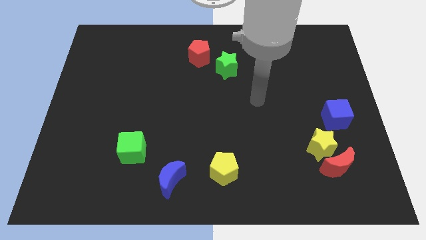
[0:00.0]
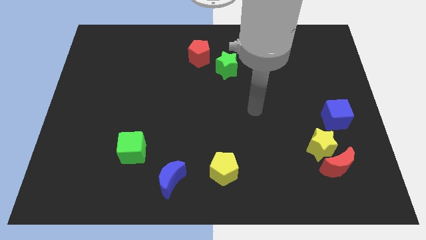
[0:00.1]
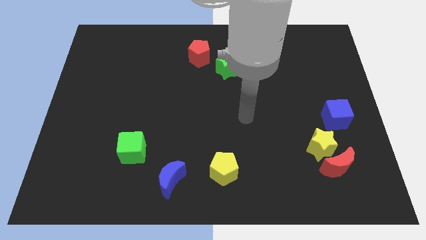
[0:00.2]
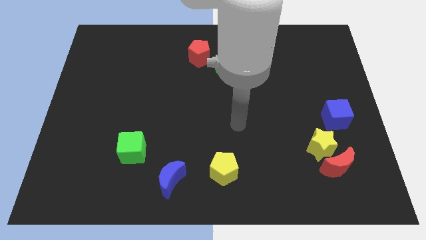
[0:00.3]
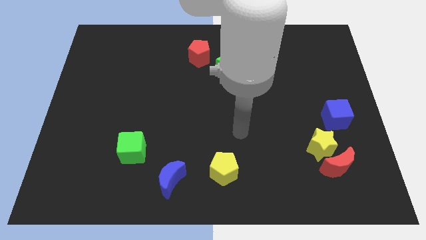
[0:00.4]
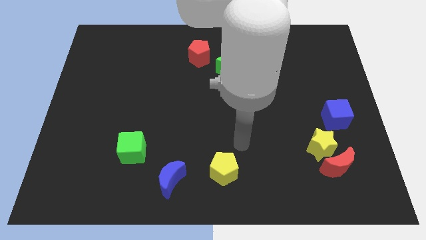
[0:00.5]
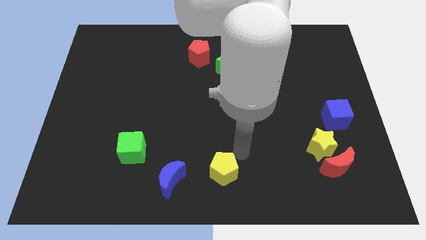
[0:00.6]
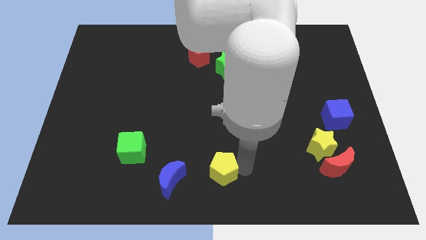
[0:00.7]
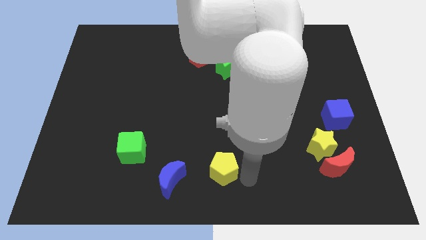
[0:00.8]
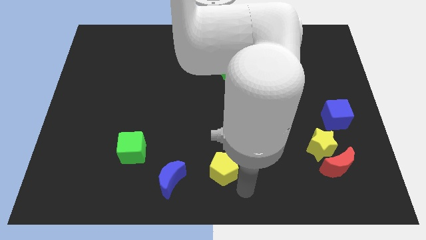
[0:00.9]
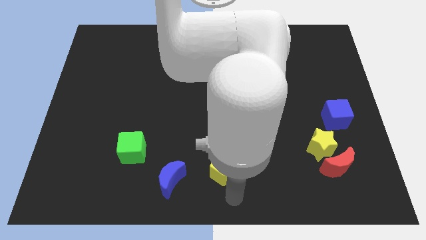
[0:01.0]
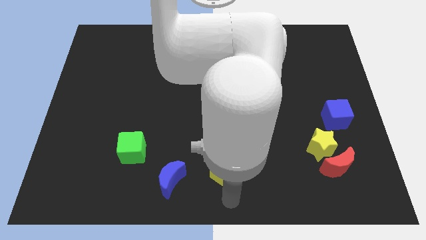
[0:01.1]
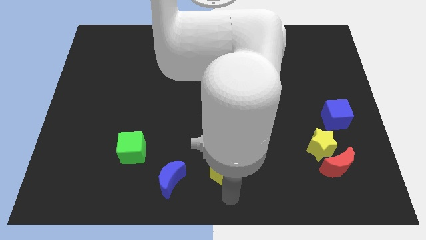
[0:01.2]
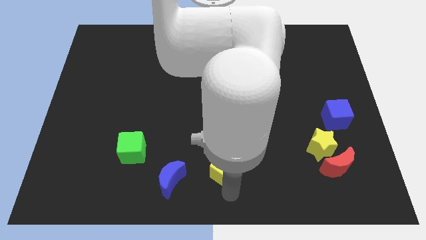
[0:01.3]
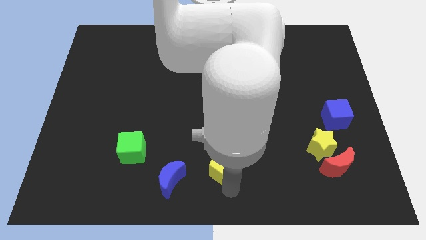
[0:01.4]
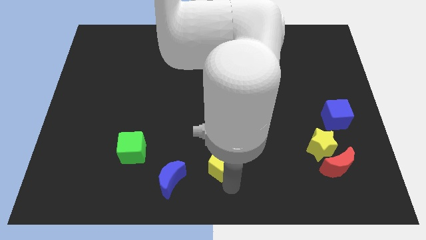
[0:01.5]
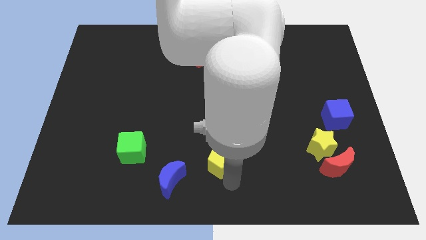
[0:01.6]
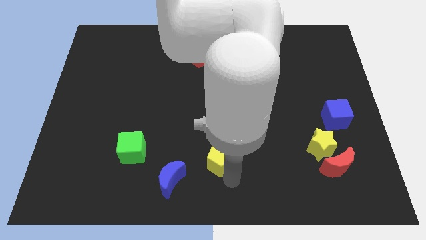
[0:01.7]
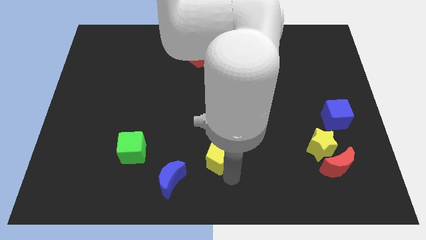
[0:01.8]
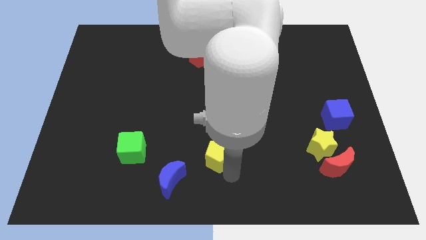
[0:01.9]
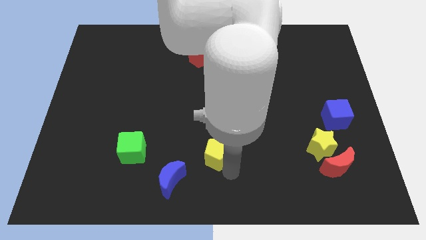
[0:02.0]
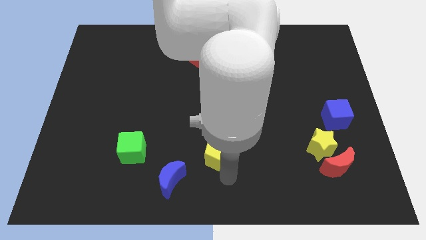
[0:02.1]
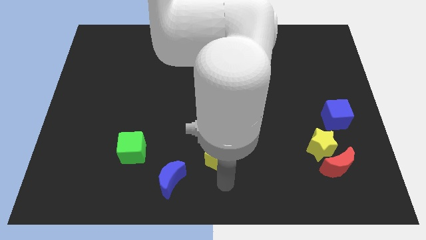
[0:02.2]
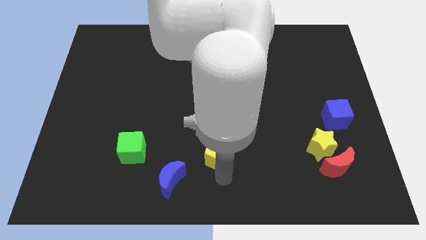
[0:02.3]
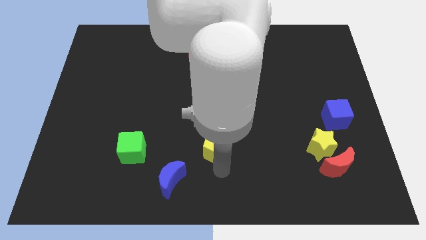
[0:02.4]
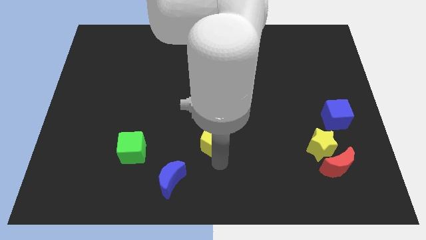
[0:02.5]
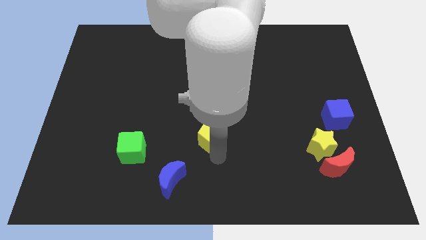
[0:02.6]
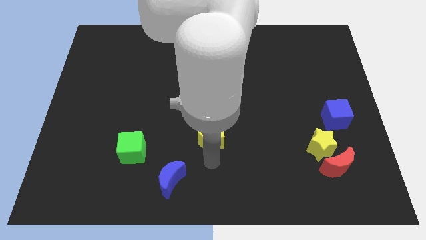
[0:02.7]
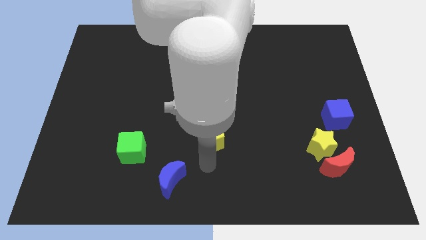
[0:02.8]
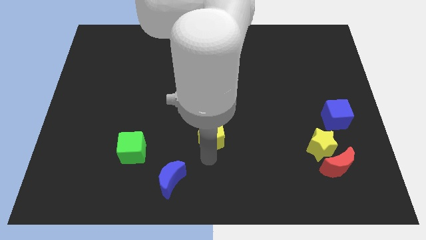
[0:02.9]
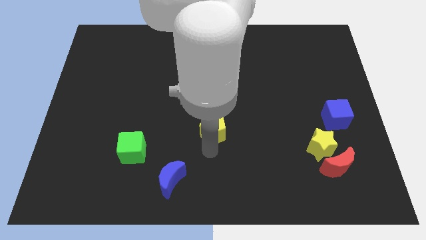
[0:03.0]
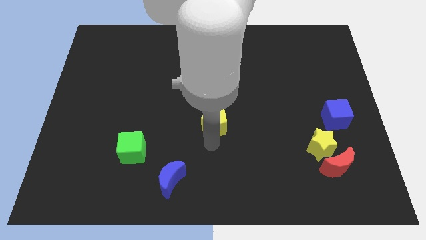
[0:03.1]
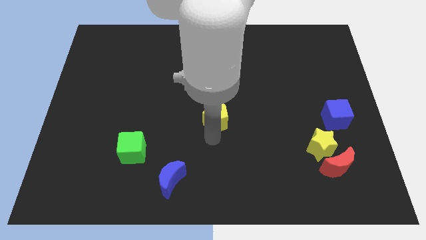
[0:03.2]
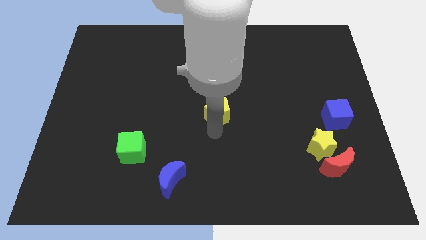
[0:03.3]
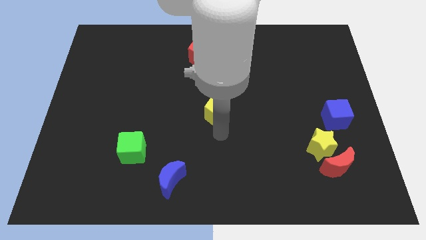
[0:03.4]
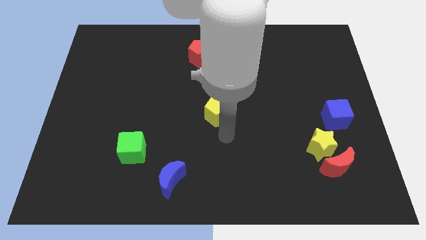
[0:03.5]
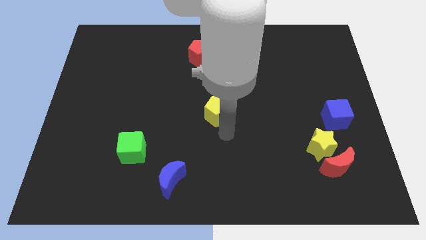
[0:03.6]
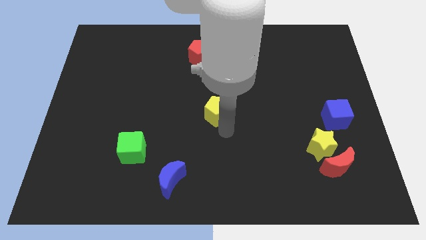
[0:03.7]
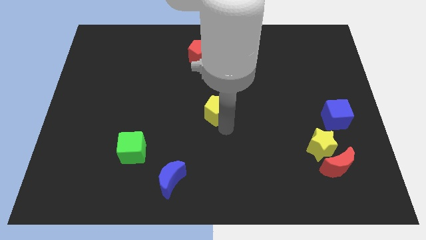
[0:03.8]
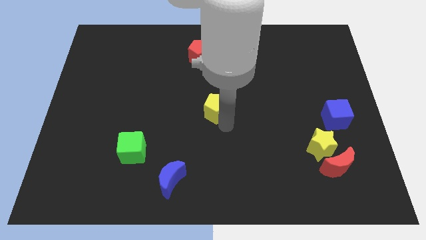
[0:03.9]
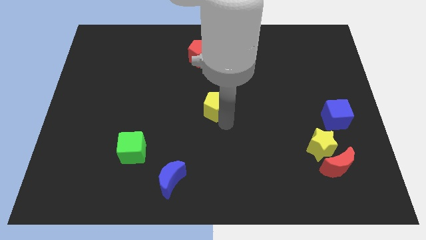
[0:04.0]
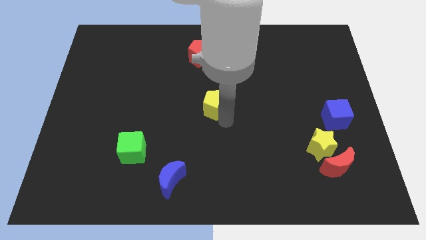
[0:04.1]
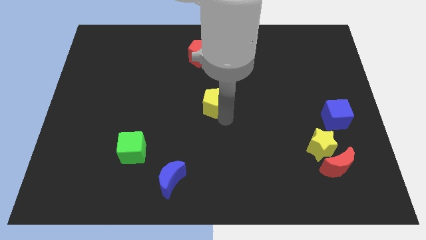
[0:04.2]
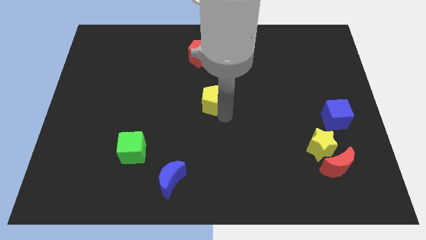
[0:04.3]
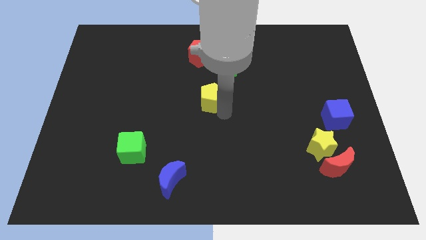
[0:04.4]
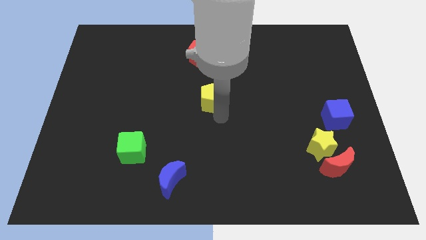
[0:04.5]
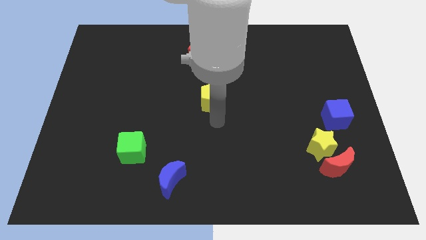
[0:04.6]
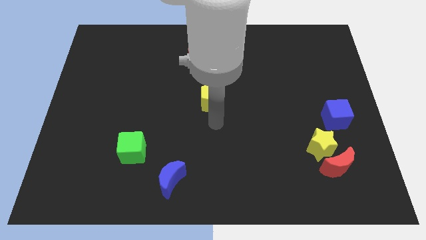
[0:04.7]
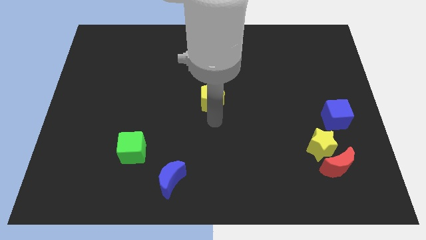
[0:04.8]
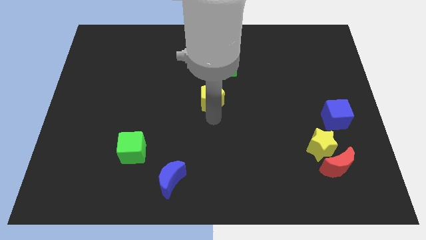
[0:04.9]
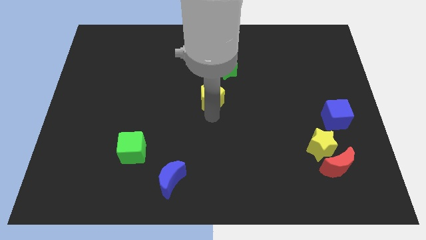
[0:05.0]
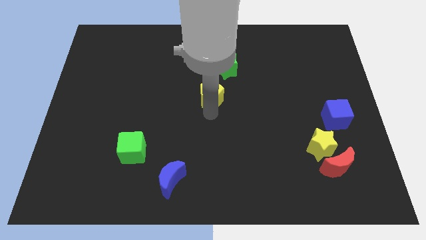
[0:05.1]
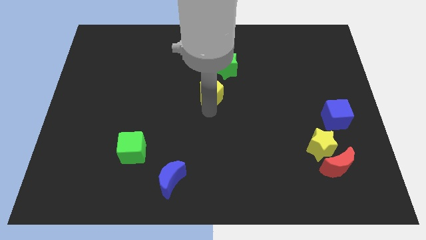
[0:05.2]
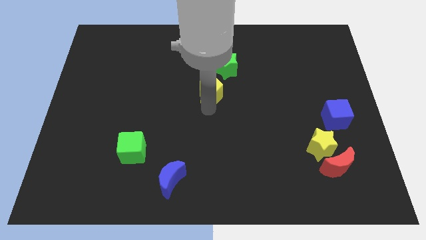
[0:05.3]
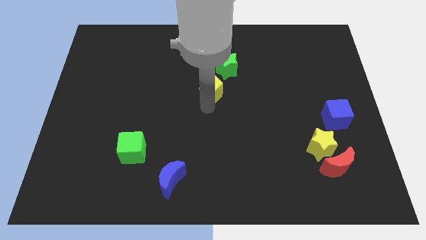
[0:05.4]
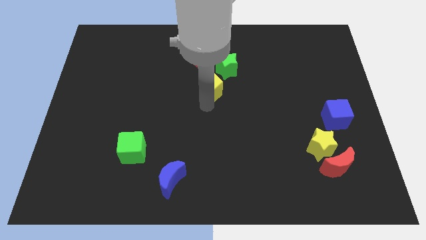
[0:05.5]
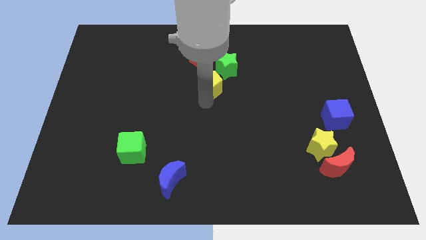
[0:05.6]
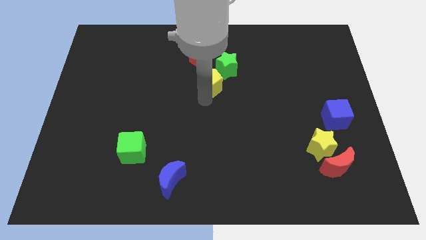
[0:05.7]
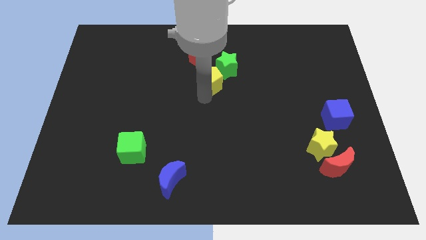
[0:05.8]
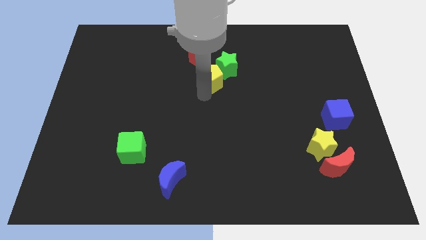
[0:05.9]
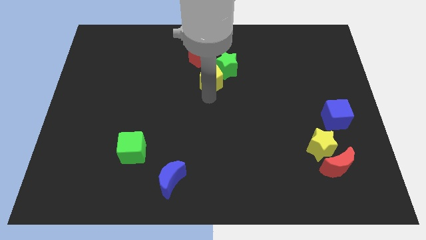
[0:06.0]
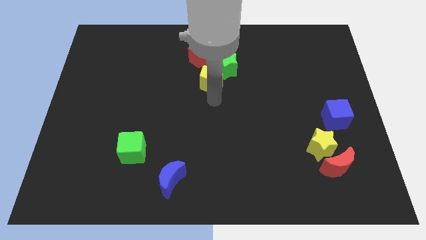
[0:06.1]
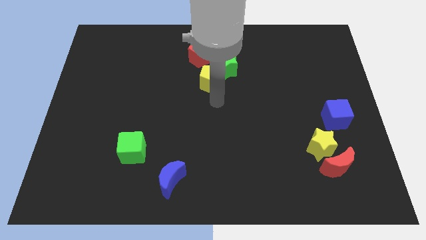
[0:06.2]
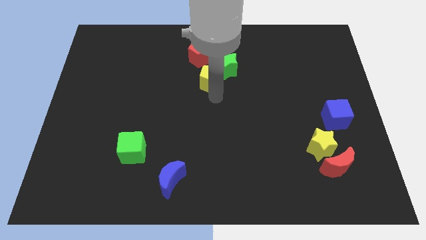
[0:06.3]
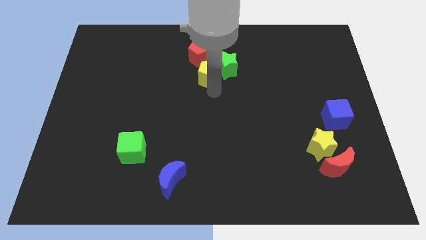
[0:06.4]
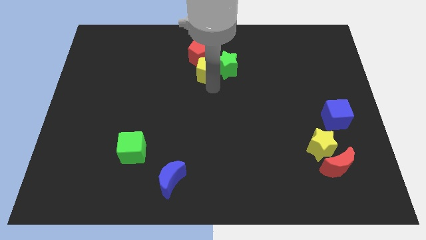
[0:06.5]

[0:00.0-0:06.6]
move the yellow pentagon towards the red pentagon

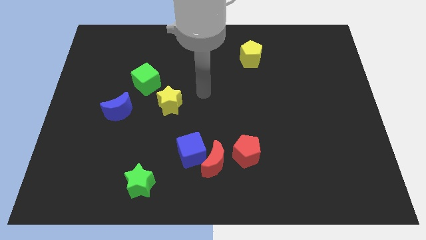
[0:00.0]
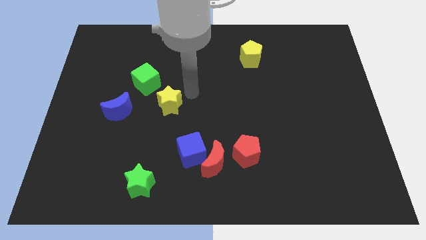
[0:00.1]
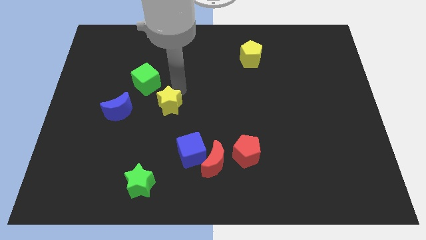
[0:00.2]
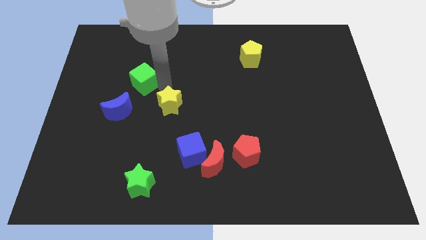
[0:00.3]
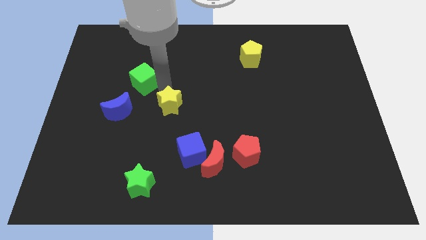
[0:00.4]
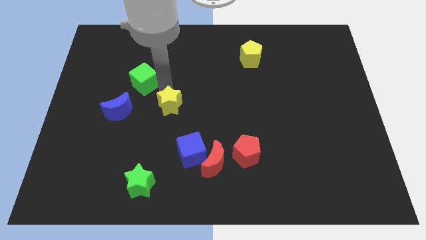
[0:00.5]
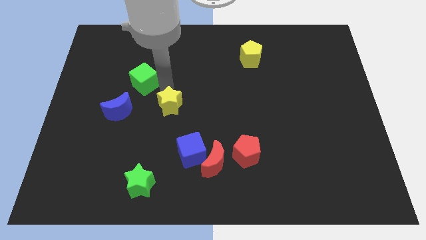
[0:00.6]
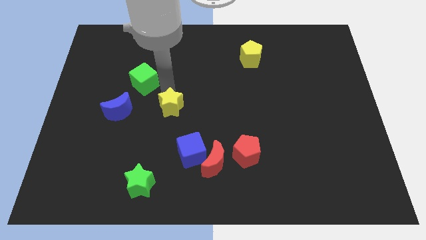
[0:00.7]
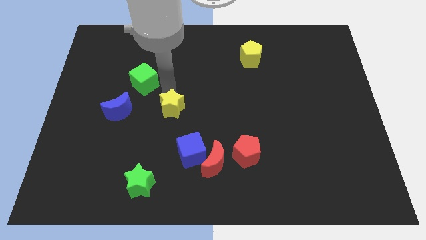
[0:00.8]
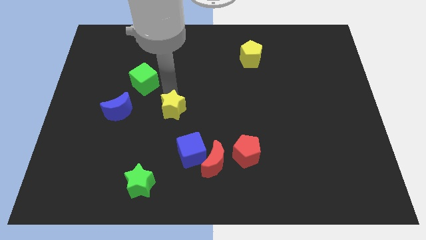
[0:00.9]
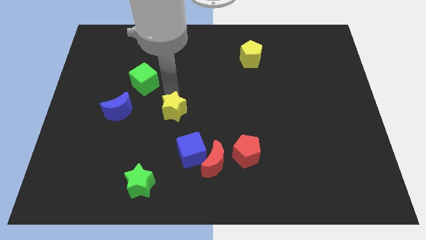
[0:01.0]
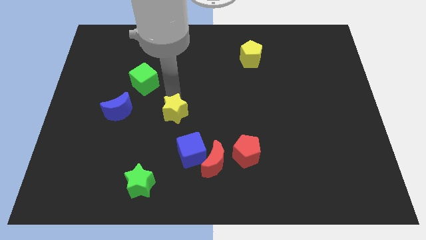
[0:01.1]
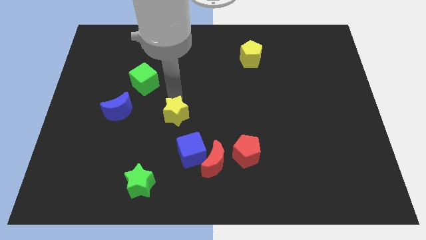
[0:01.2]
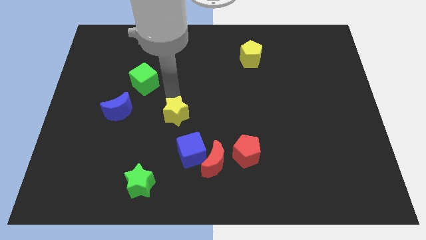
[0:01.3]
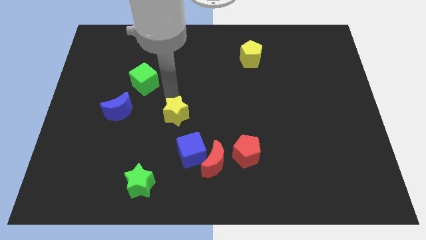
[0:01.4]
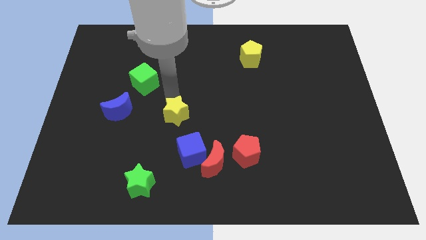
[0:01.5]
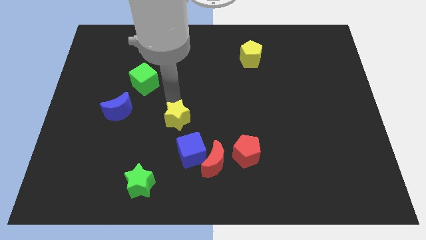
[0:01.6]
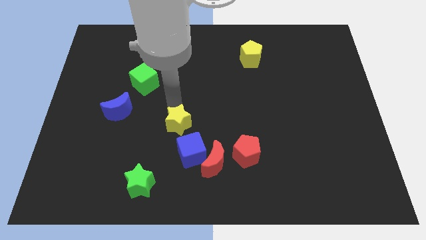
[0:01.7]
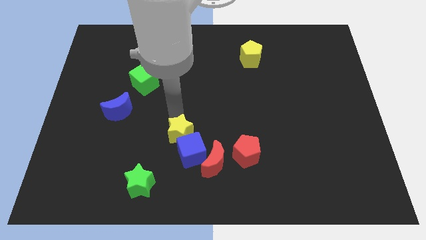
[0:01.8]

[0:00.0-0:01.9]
slide the yellow star next to the blue cube
